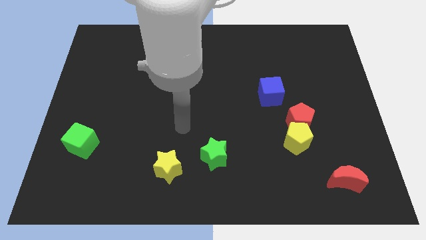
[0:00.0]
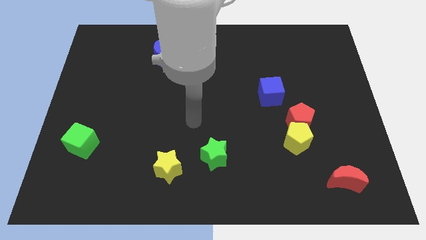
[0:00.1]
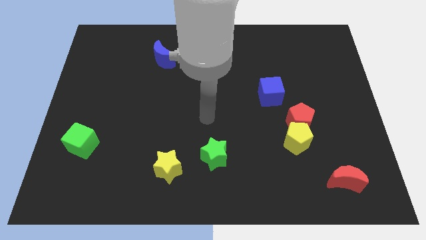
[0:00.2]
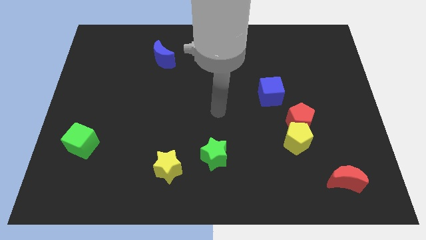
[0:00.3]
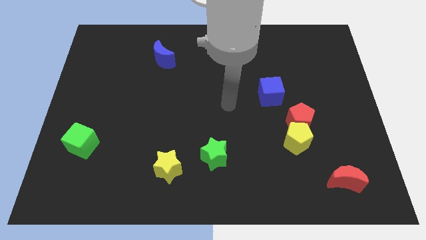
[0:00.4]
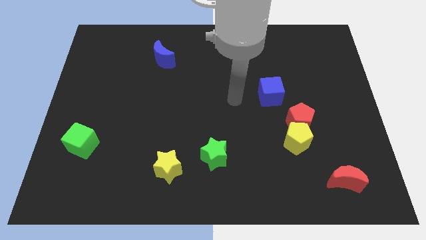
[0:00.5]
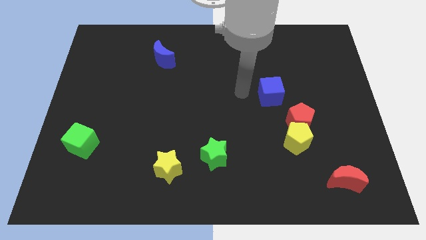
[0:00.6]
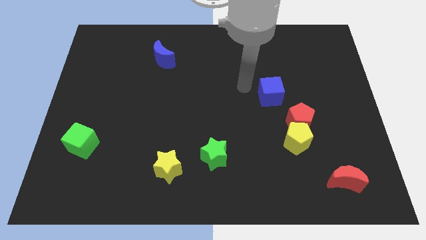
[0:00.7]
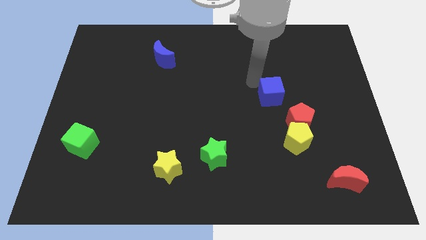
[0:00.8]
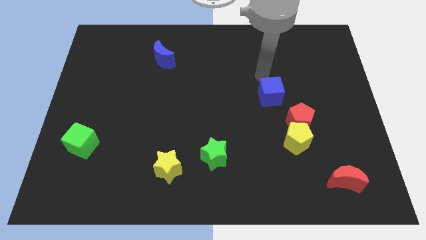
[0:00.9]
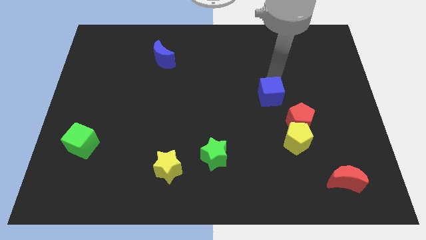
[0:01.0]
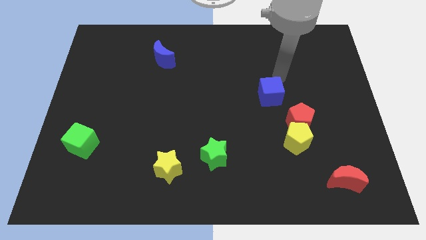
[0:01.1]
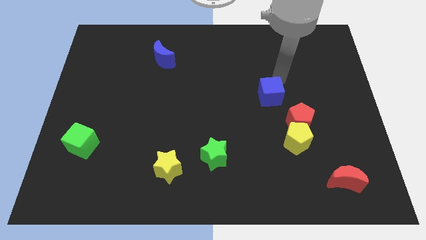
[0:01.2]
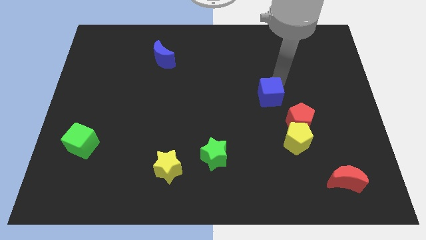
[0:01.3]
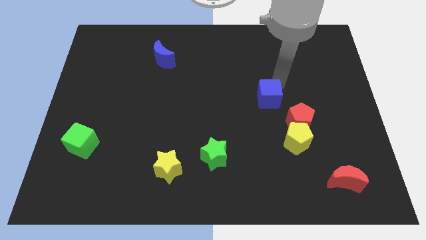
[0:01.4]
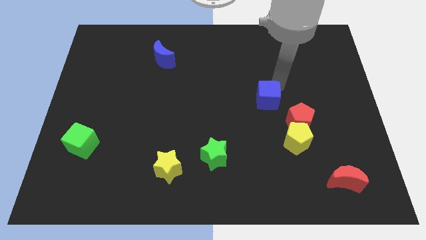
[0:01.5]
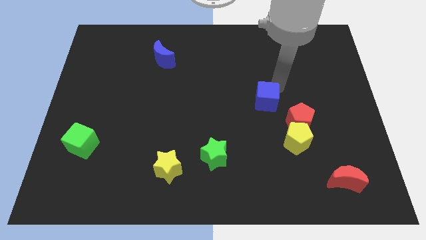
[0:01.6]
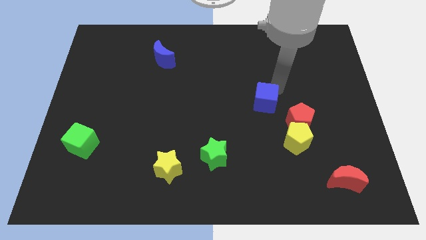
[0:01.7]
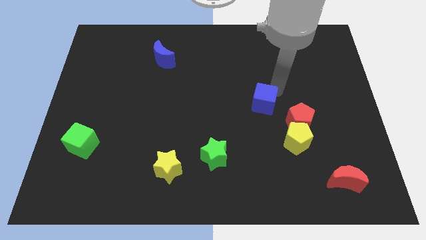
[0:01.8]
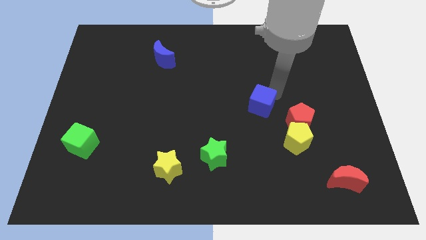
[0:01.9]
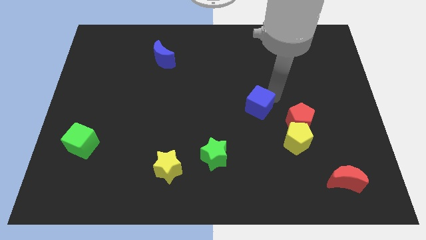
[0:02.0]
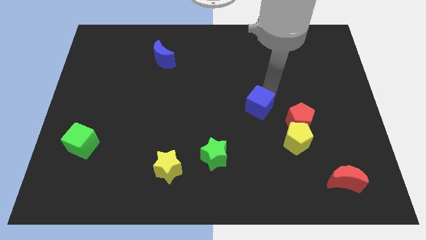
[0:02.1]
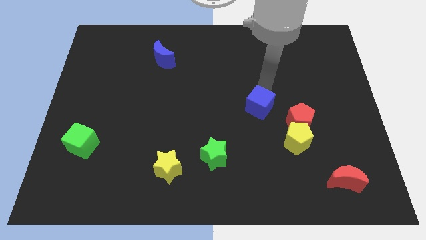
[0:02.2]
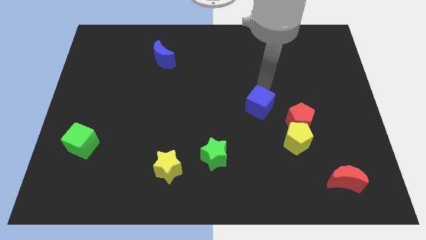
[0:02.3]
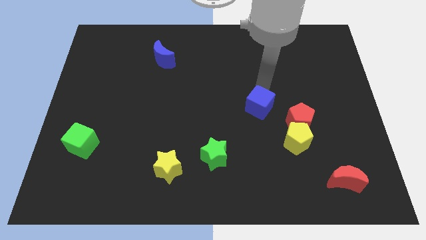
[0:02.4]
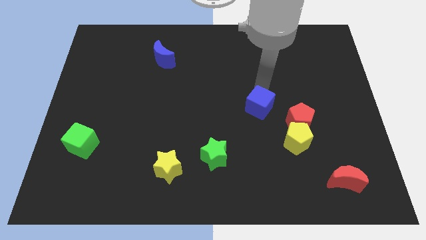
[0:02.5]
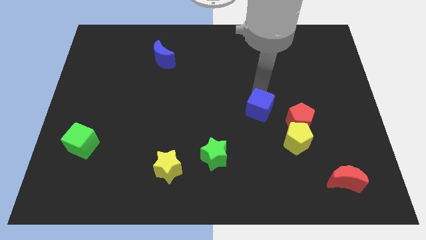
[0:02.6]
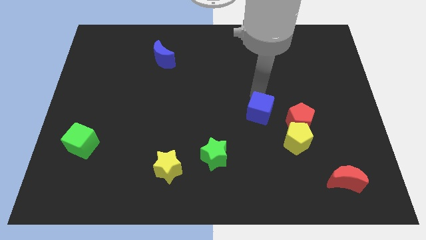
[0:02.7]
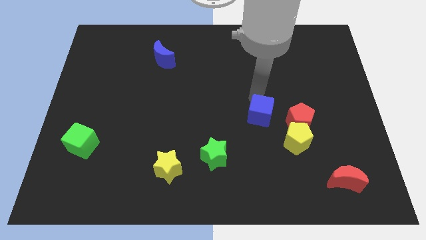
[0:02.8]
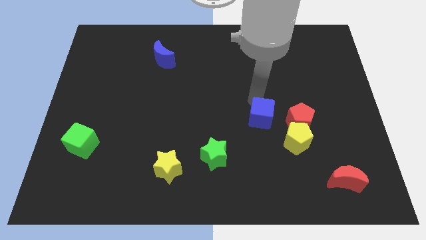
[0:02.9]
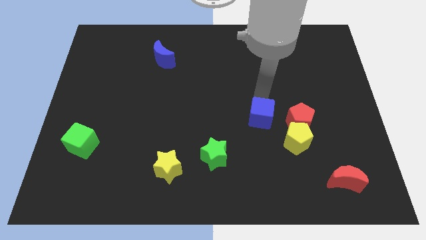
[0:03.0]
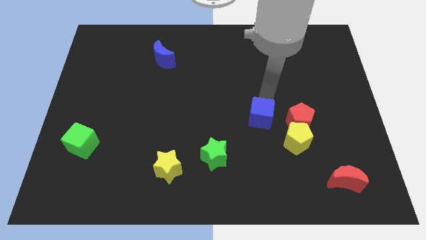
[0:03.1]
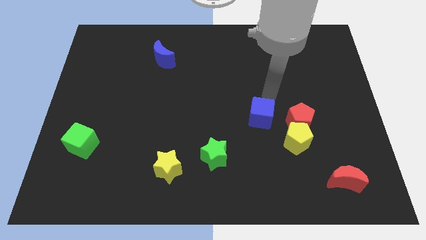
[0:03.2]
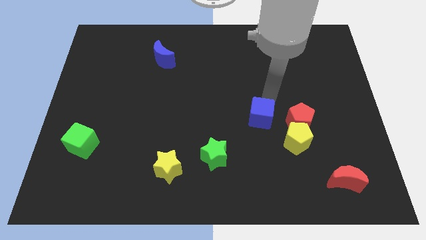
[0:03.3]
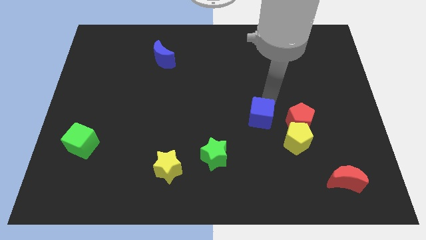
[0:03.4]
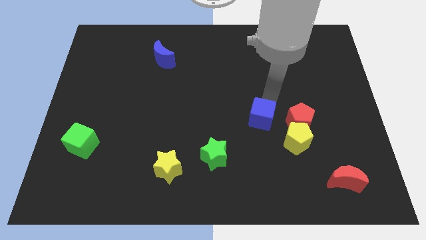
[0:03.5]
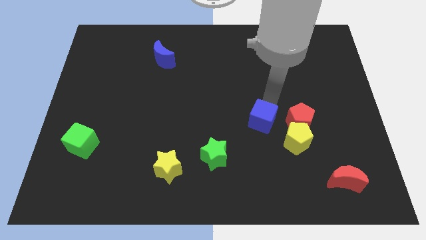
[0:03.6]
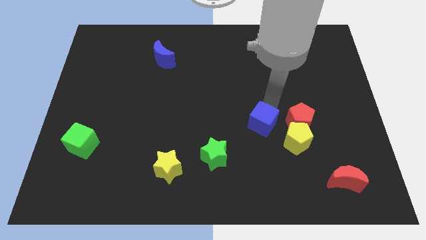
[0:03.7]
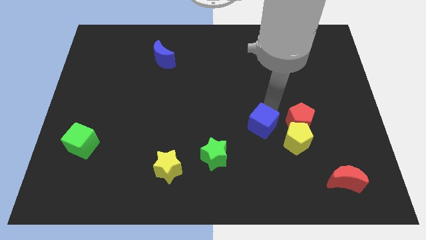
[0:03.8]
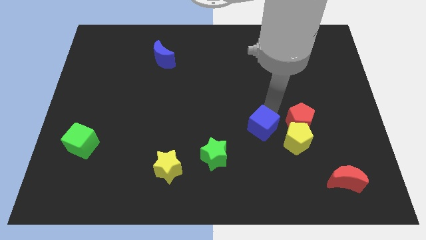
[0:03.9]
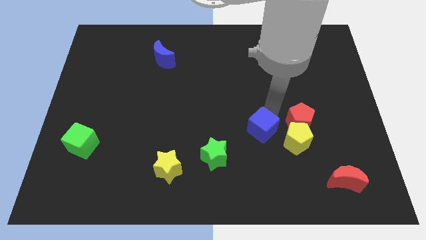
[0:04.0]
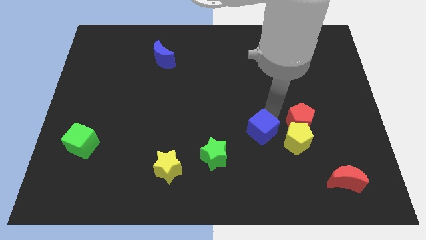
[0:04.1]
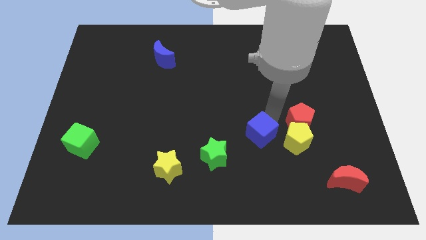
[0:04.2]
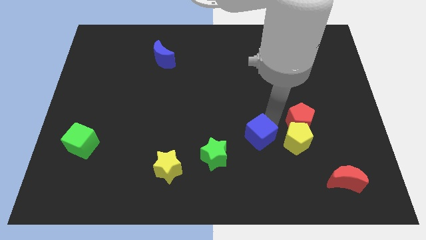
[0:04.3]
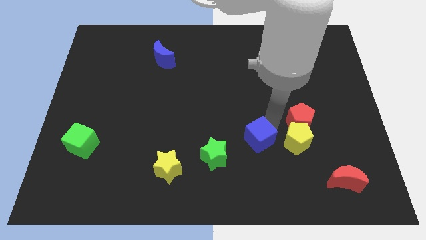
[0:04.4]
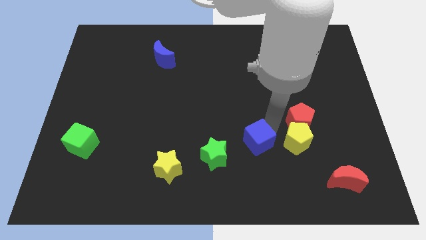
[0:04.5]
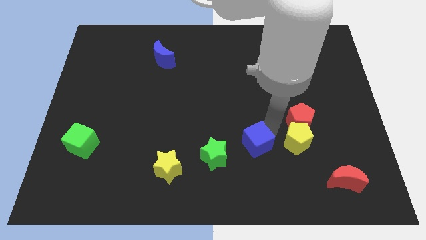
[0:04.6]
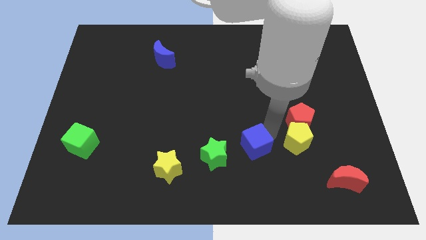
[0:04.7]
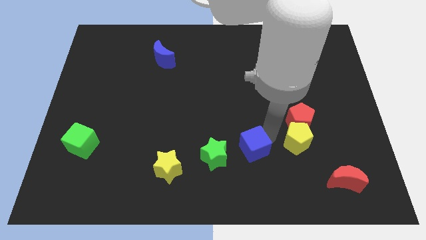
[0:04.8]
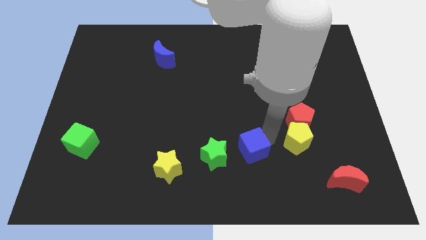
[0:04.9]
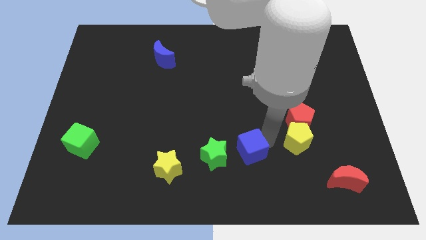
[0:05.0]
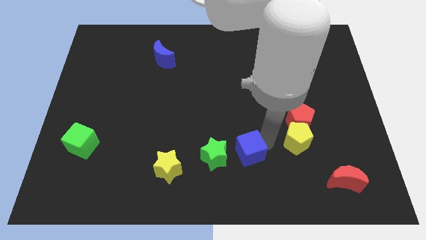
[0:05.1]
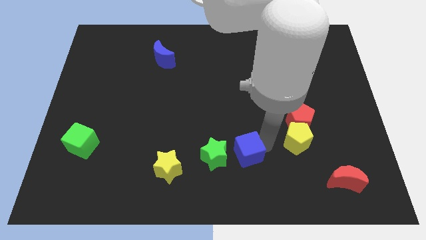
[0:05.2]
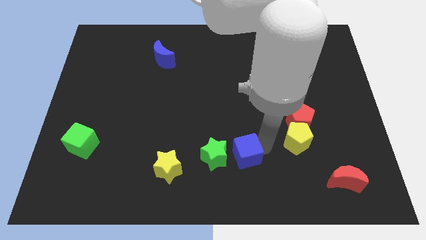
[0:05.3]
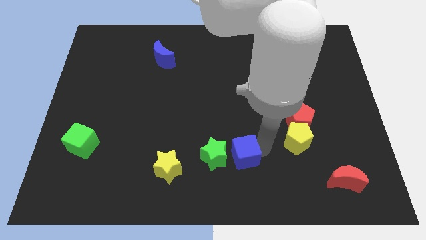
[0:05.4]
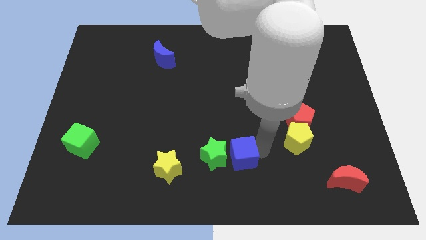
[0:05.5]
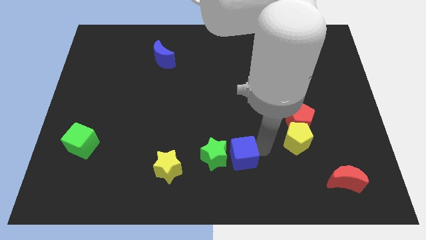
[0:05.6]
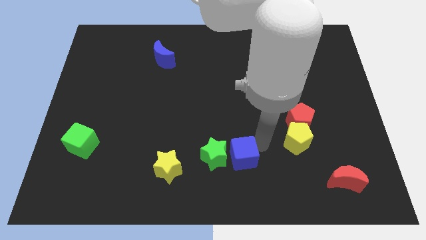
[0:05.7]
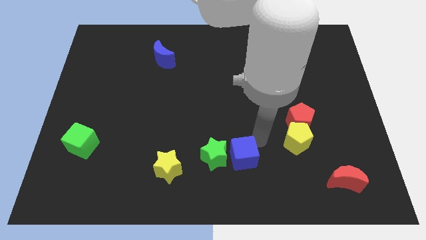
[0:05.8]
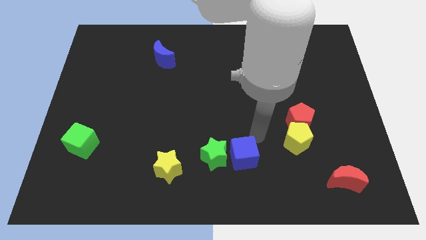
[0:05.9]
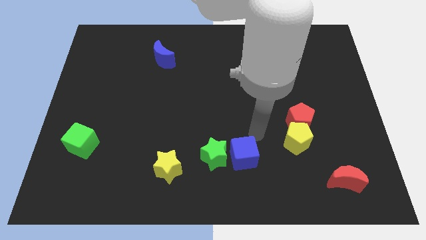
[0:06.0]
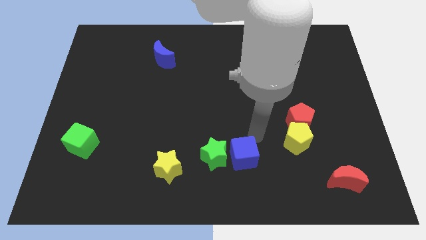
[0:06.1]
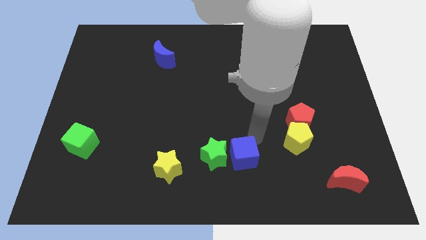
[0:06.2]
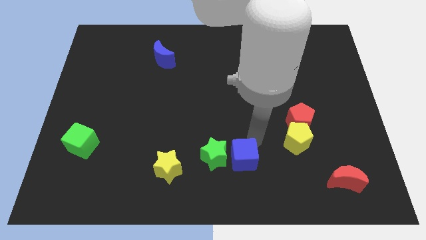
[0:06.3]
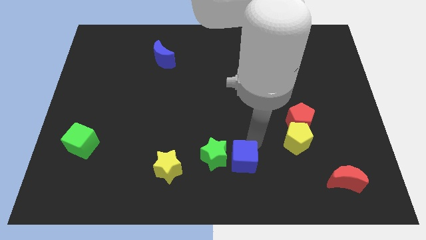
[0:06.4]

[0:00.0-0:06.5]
push the blue cube to the bottom side
